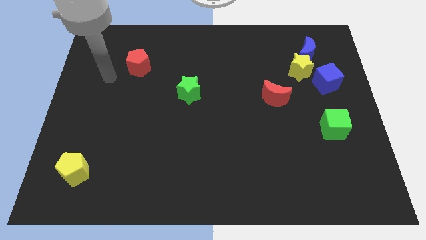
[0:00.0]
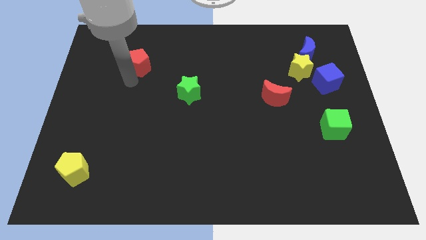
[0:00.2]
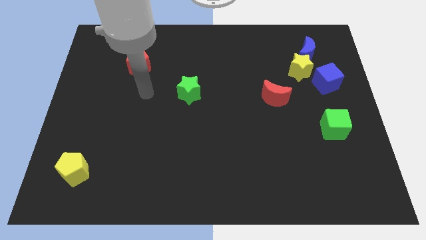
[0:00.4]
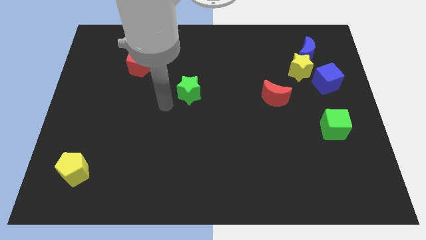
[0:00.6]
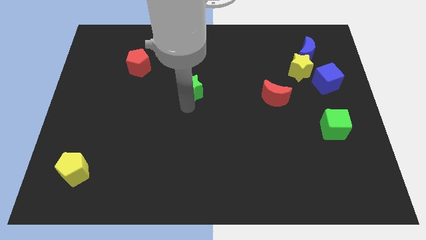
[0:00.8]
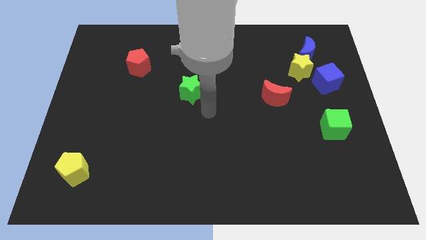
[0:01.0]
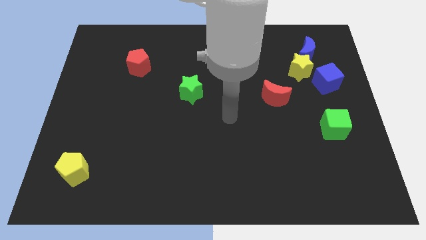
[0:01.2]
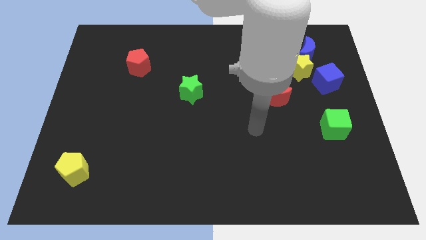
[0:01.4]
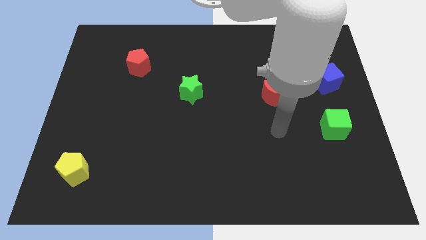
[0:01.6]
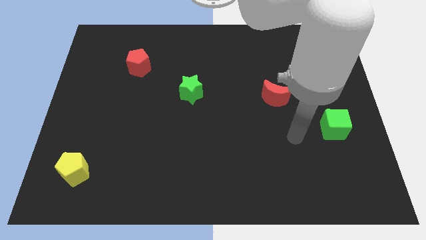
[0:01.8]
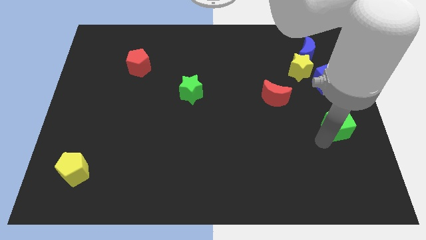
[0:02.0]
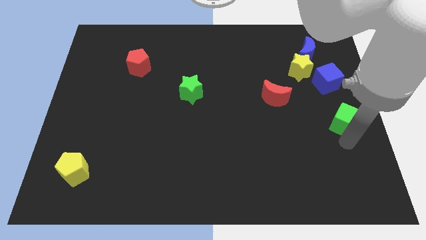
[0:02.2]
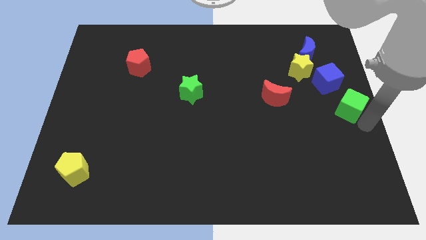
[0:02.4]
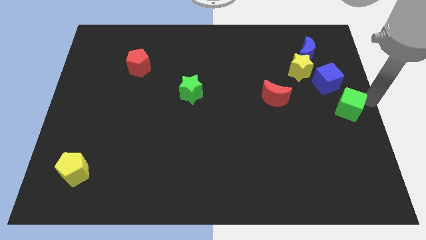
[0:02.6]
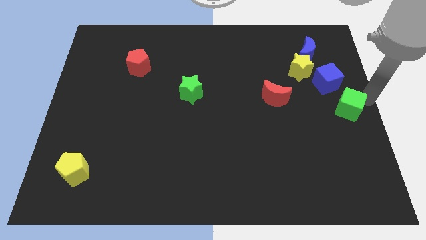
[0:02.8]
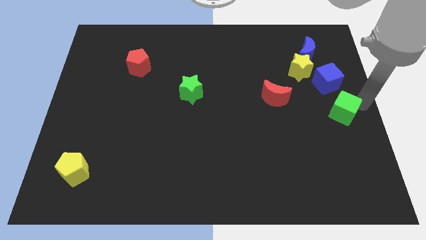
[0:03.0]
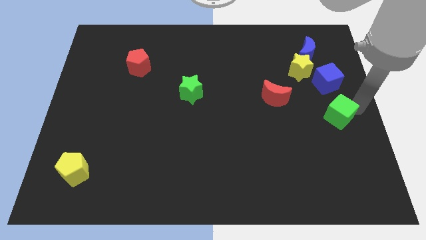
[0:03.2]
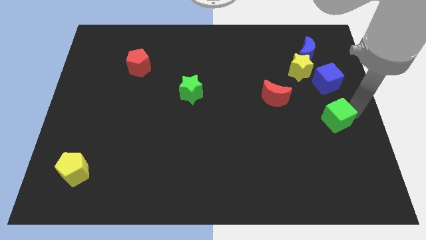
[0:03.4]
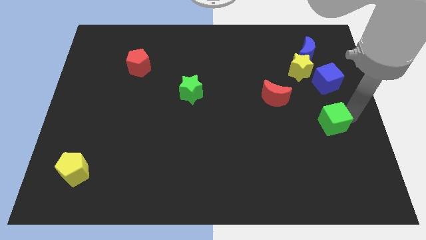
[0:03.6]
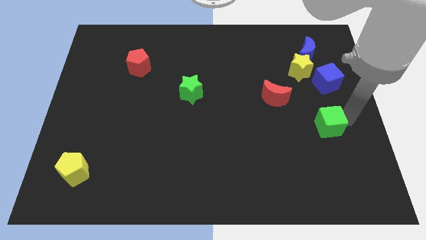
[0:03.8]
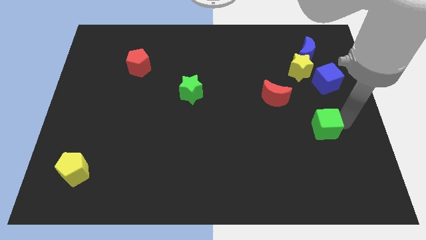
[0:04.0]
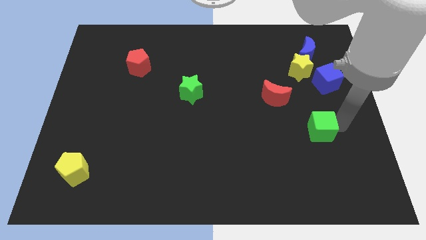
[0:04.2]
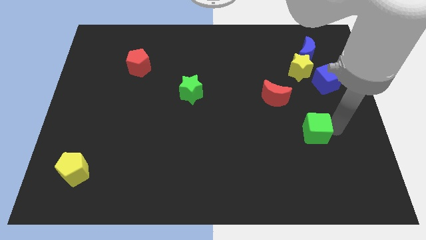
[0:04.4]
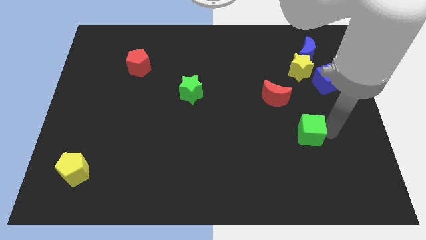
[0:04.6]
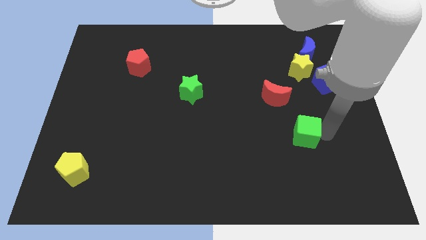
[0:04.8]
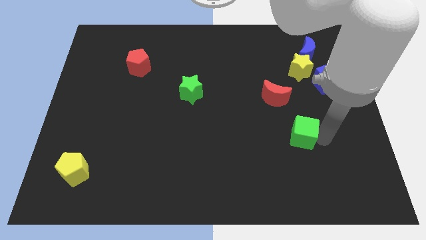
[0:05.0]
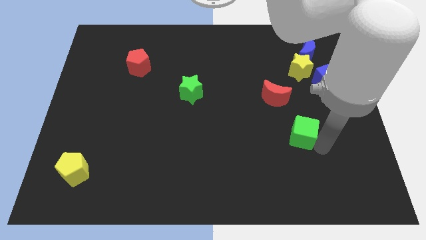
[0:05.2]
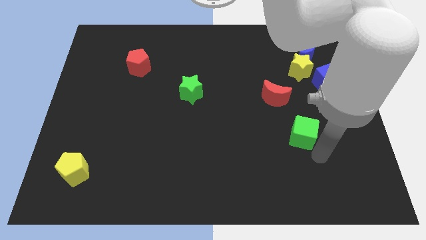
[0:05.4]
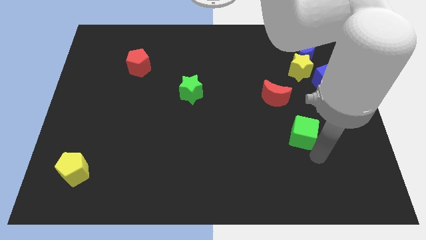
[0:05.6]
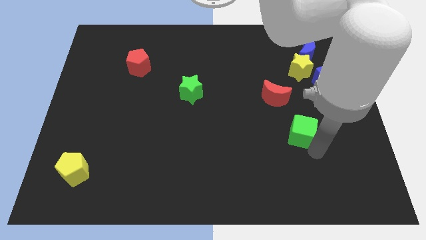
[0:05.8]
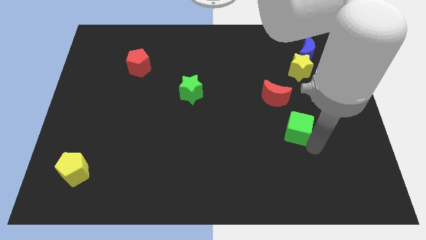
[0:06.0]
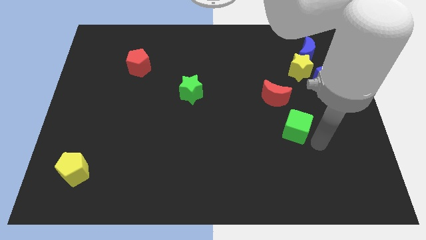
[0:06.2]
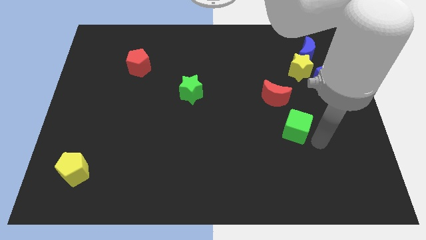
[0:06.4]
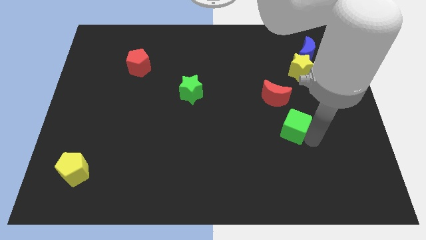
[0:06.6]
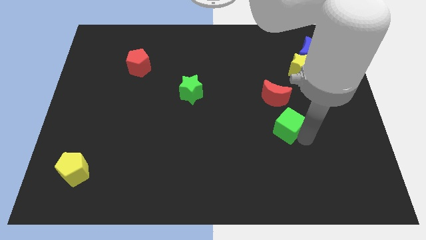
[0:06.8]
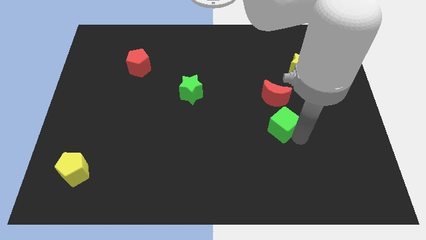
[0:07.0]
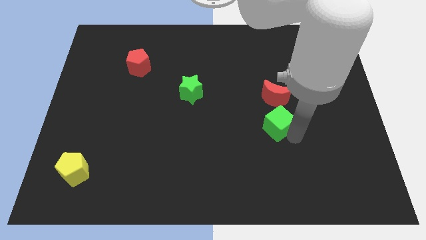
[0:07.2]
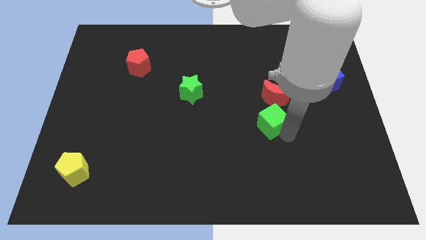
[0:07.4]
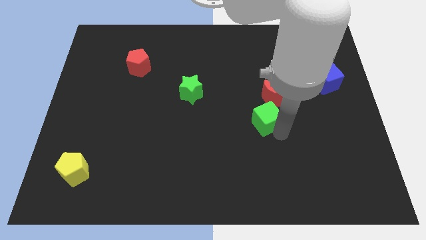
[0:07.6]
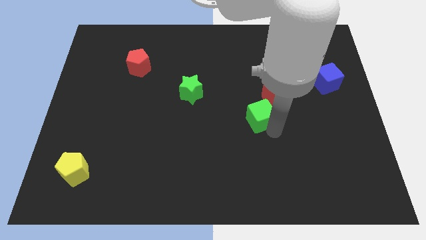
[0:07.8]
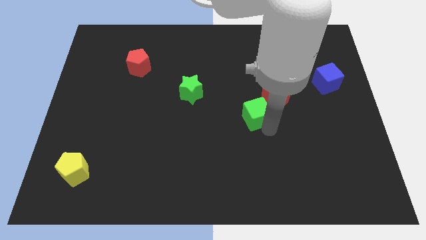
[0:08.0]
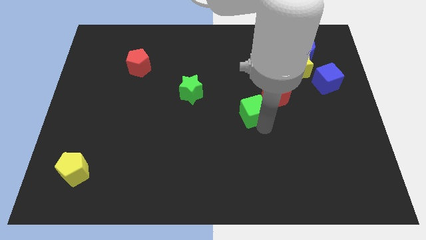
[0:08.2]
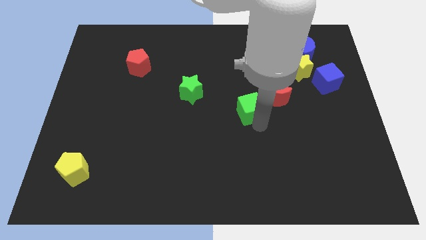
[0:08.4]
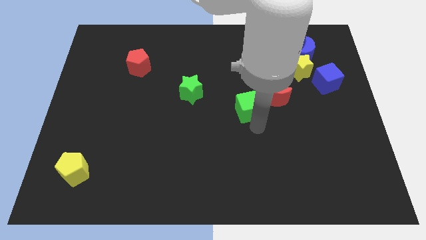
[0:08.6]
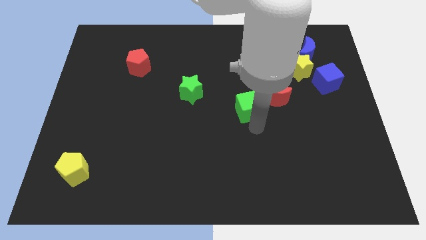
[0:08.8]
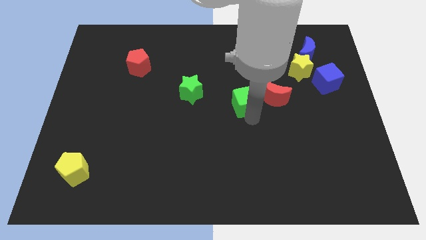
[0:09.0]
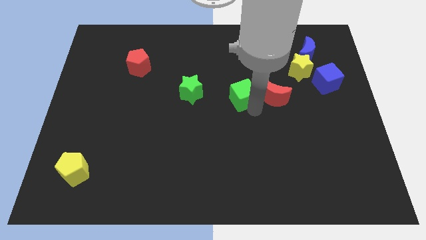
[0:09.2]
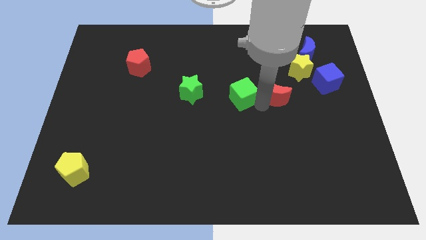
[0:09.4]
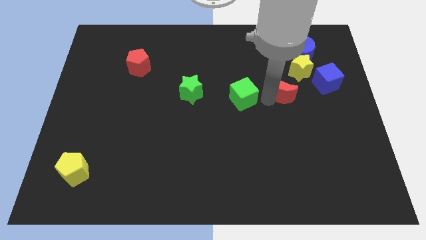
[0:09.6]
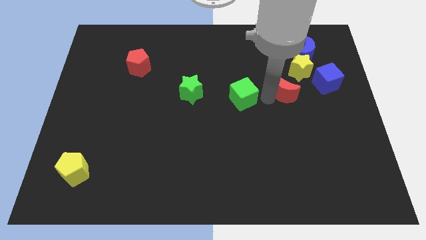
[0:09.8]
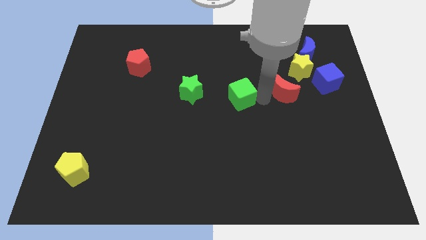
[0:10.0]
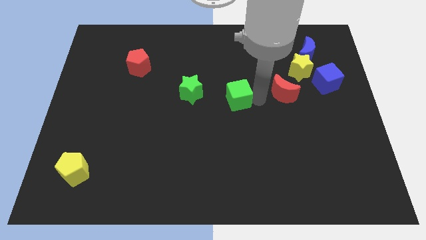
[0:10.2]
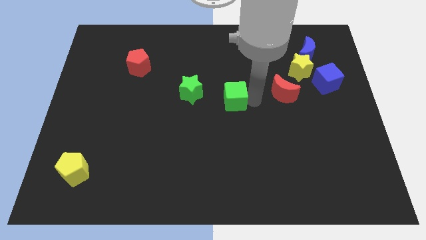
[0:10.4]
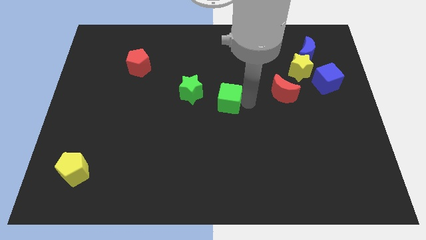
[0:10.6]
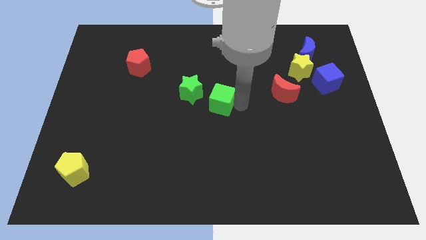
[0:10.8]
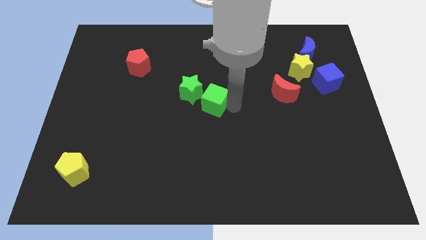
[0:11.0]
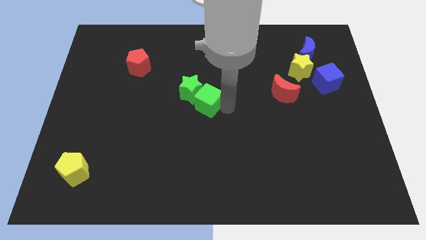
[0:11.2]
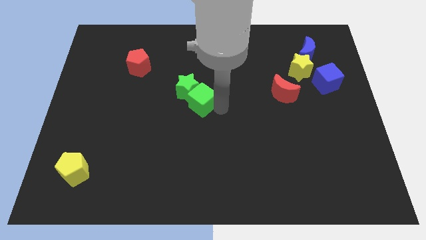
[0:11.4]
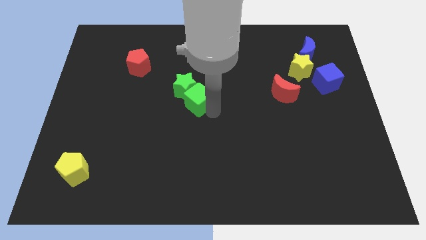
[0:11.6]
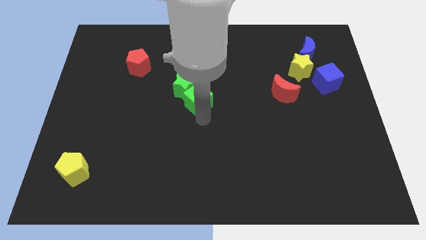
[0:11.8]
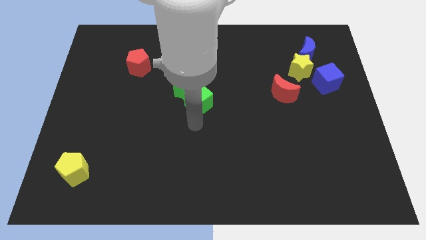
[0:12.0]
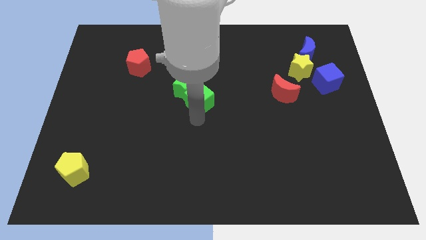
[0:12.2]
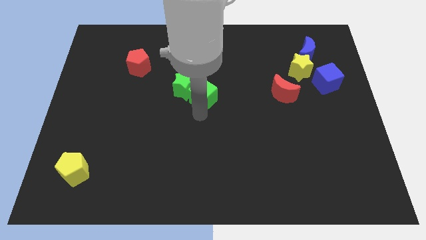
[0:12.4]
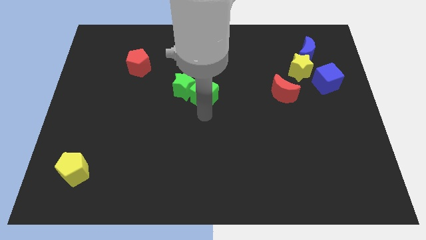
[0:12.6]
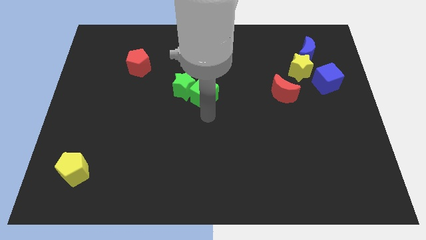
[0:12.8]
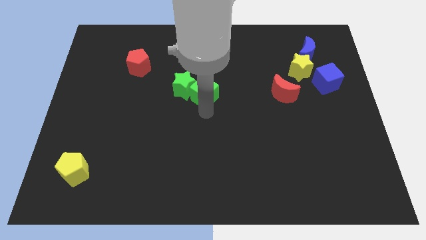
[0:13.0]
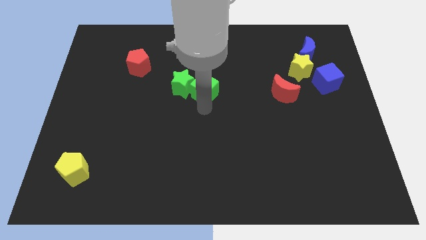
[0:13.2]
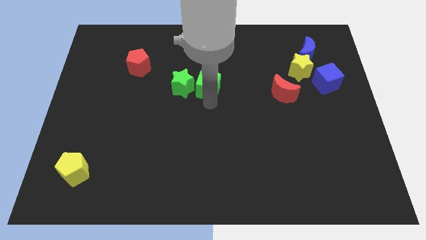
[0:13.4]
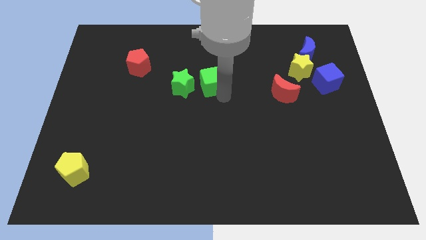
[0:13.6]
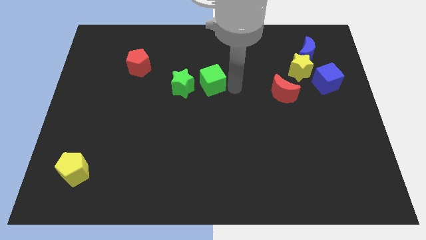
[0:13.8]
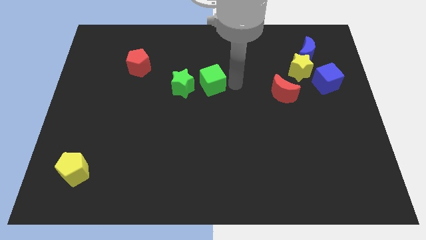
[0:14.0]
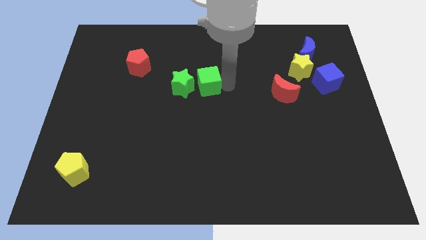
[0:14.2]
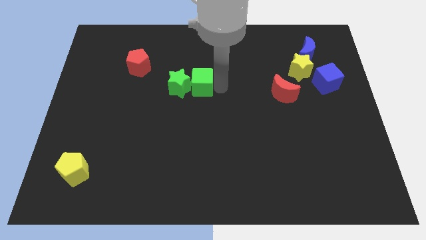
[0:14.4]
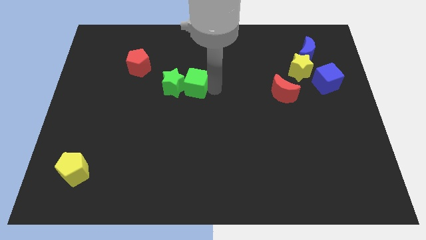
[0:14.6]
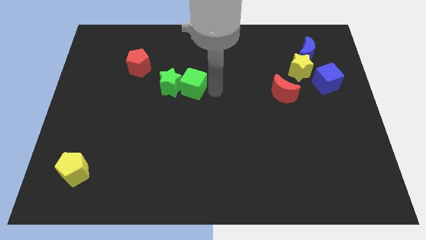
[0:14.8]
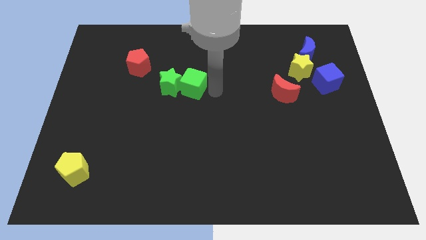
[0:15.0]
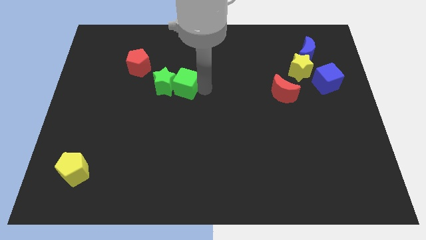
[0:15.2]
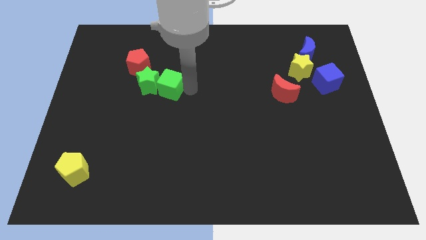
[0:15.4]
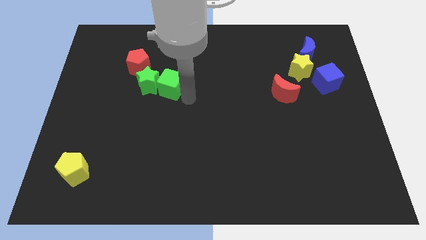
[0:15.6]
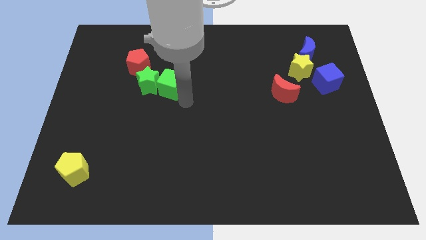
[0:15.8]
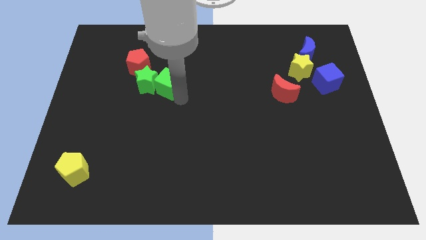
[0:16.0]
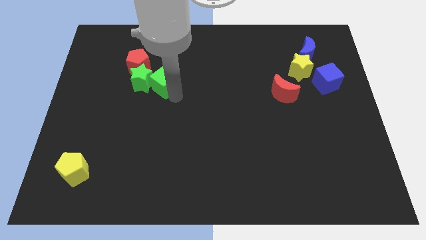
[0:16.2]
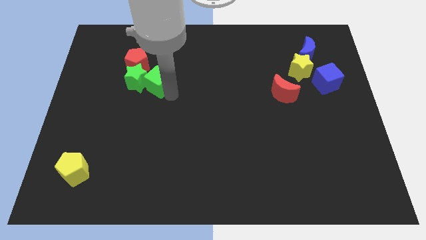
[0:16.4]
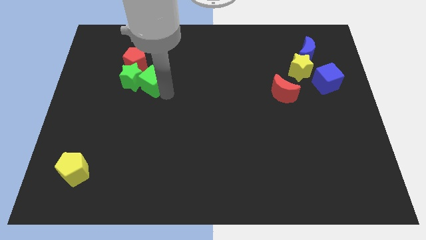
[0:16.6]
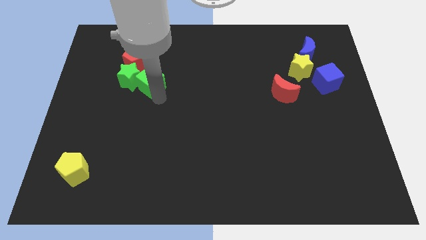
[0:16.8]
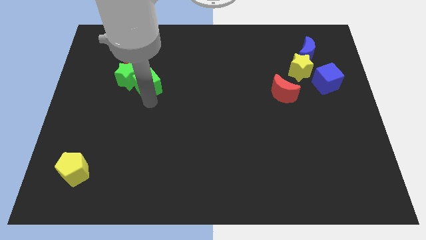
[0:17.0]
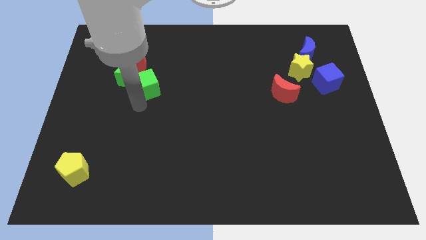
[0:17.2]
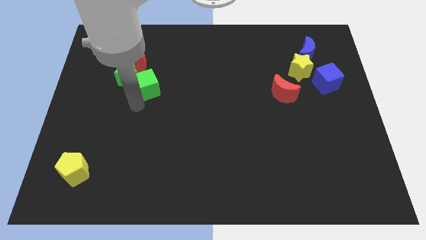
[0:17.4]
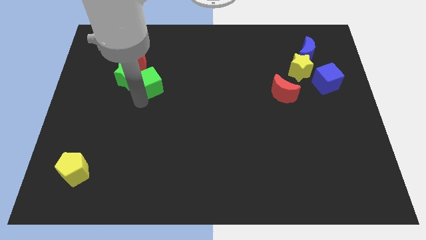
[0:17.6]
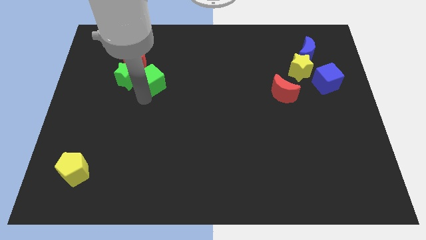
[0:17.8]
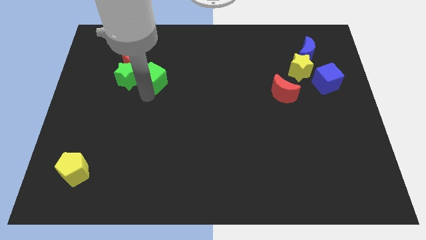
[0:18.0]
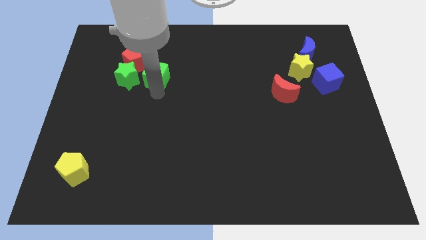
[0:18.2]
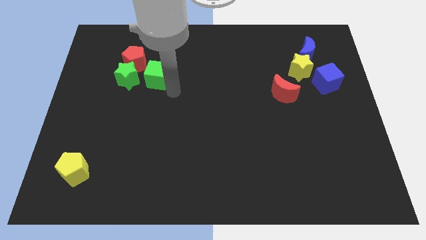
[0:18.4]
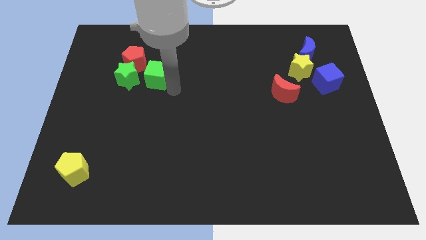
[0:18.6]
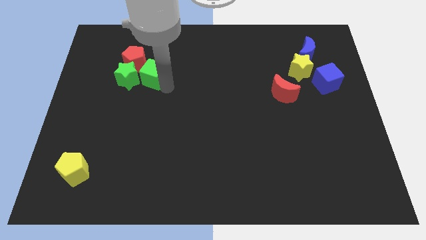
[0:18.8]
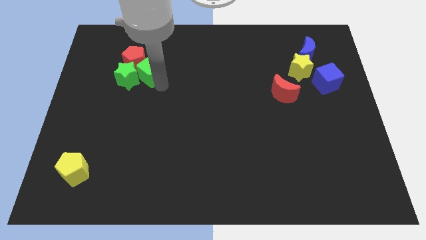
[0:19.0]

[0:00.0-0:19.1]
put the green cube towards the red pentagon
